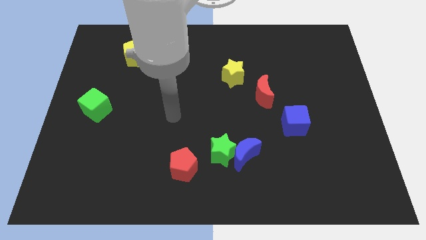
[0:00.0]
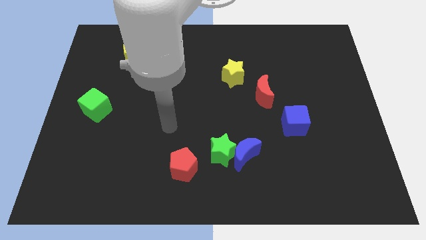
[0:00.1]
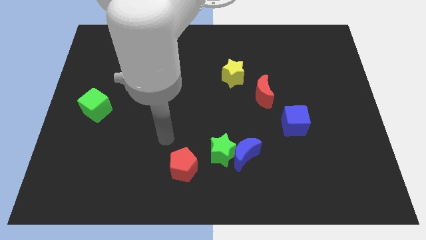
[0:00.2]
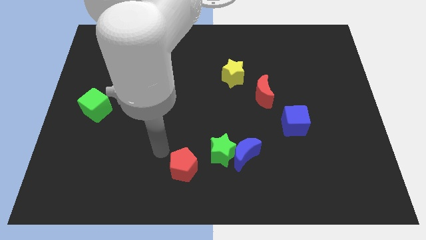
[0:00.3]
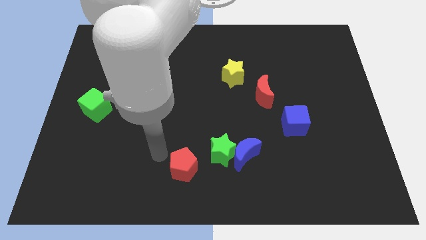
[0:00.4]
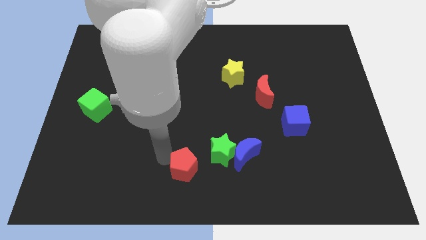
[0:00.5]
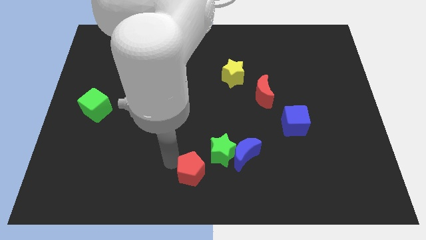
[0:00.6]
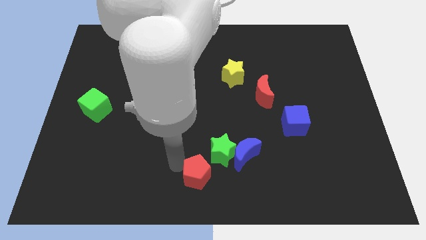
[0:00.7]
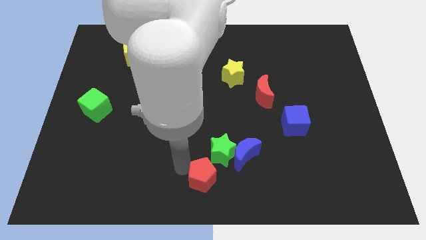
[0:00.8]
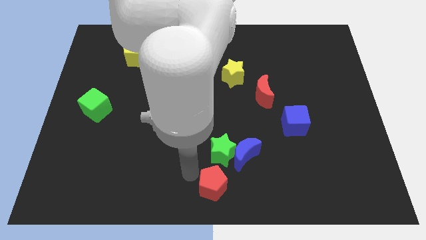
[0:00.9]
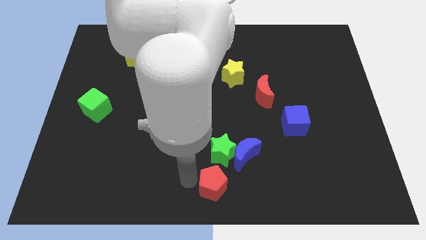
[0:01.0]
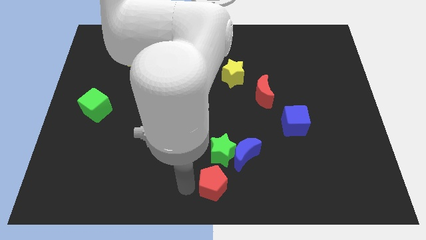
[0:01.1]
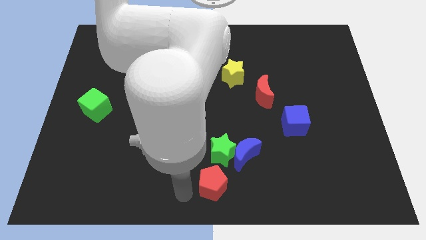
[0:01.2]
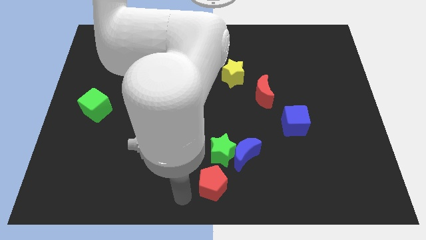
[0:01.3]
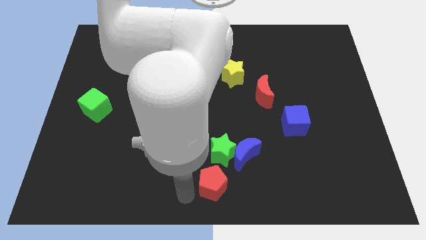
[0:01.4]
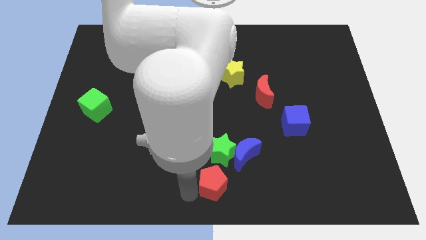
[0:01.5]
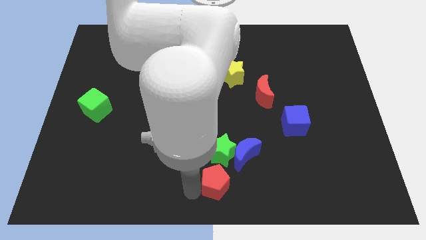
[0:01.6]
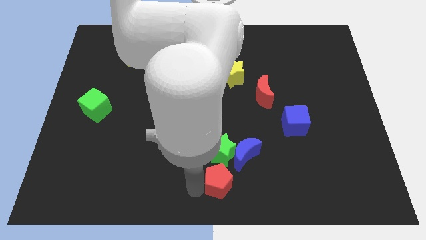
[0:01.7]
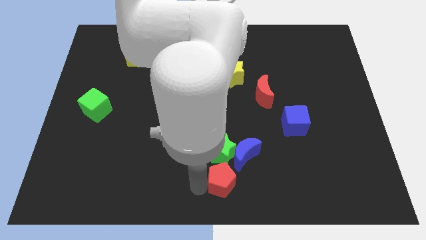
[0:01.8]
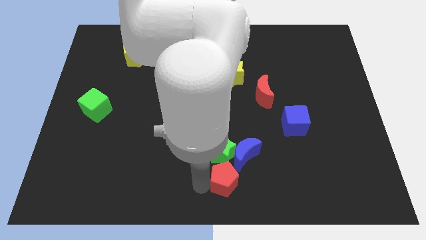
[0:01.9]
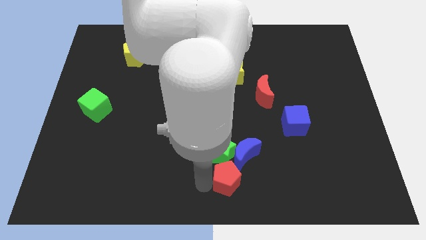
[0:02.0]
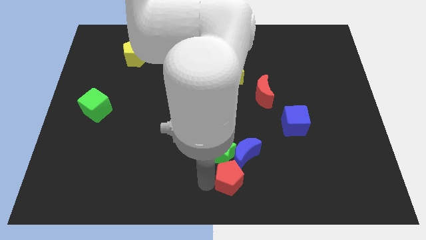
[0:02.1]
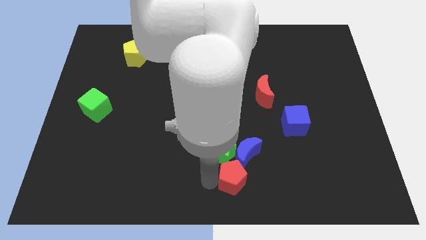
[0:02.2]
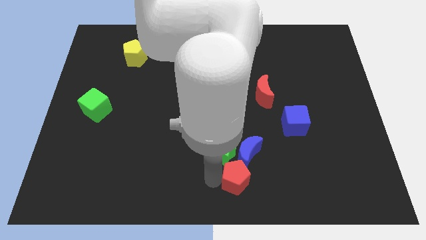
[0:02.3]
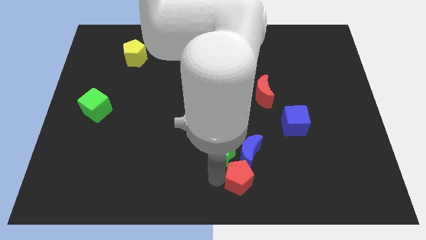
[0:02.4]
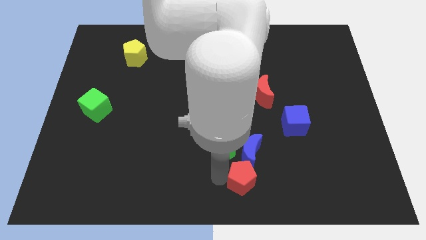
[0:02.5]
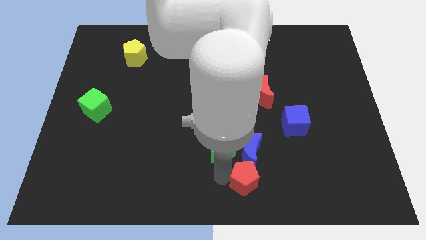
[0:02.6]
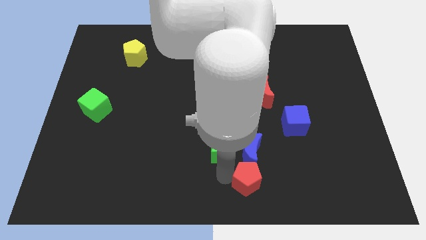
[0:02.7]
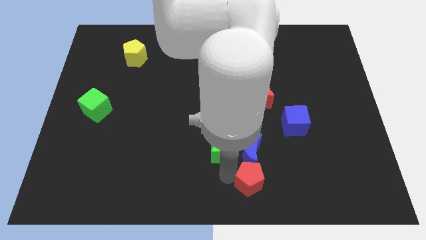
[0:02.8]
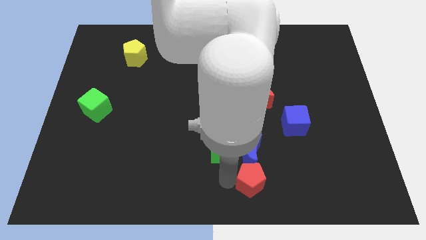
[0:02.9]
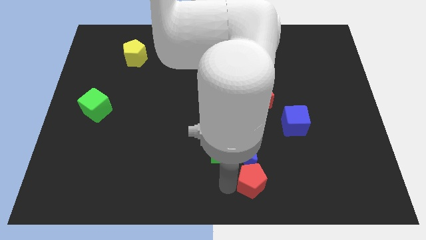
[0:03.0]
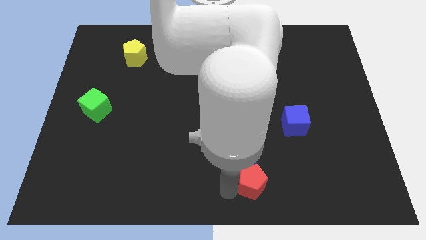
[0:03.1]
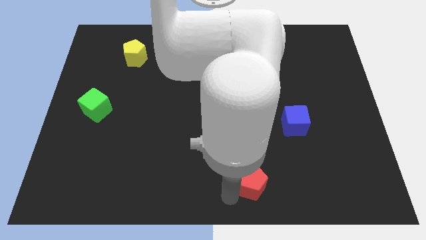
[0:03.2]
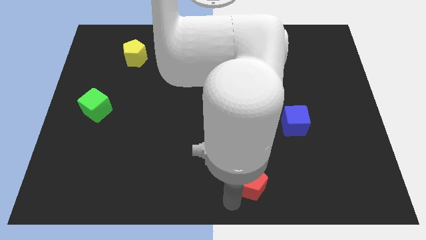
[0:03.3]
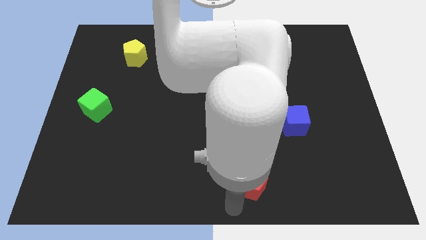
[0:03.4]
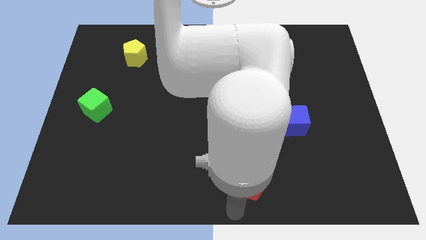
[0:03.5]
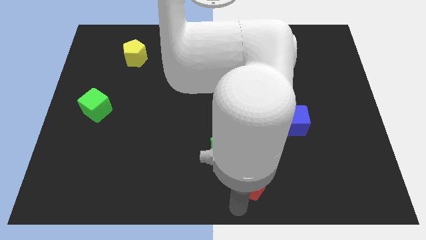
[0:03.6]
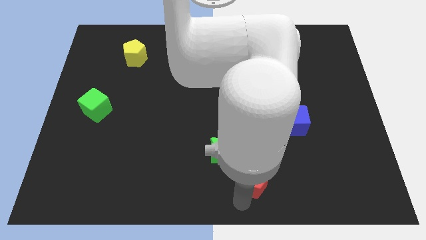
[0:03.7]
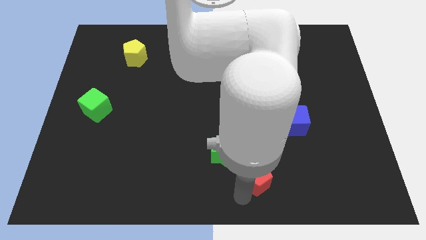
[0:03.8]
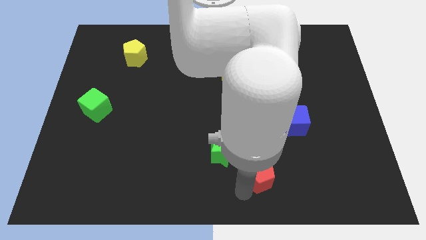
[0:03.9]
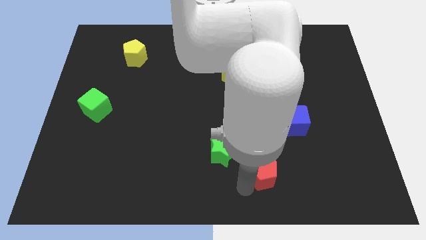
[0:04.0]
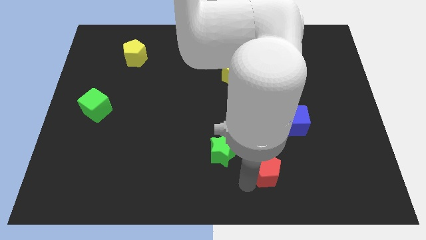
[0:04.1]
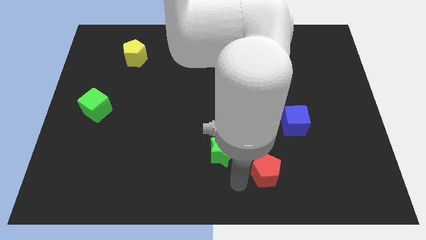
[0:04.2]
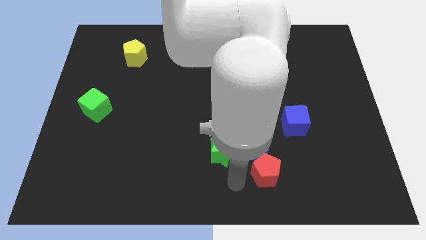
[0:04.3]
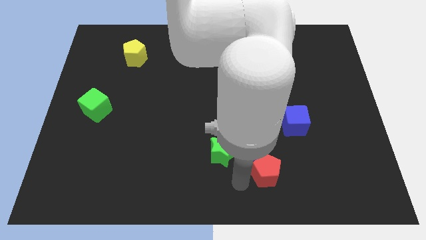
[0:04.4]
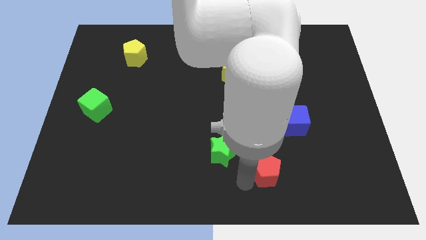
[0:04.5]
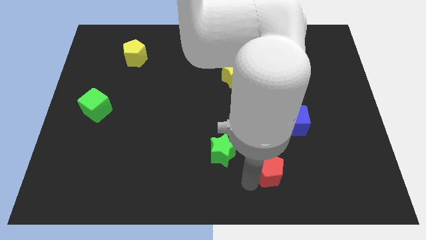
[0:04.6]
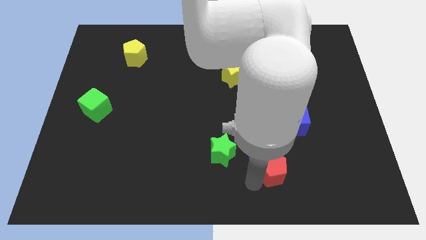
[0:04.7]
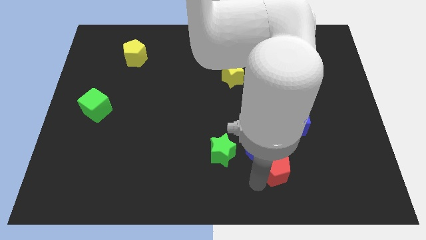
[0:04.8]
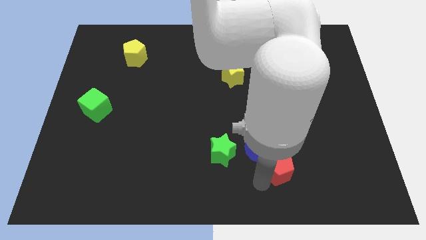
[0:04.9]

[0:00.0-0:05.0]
put the red pentagon below the blue cube

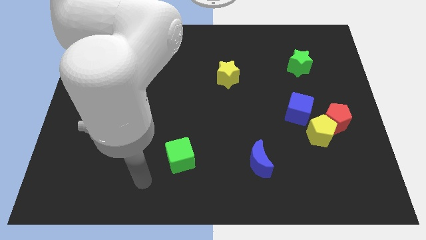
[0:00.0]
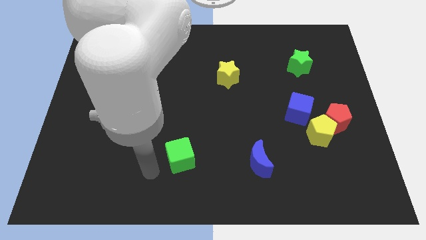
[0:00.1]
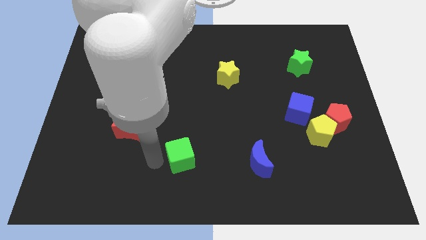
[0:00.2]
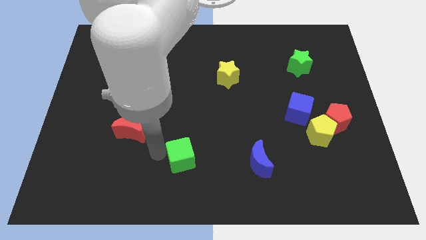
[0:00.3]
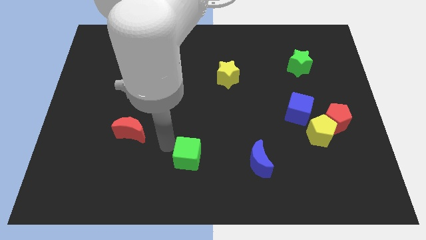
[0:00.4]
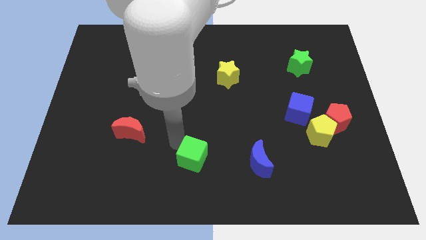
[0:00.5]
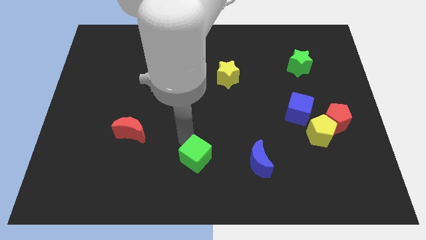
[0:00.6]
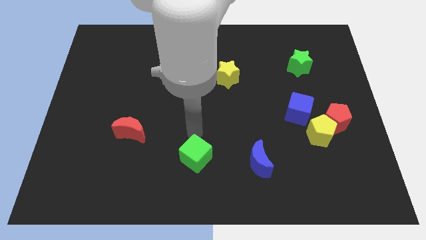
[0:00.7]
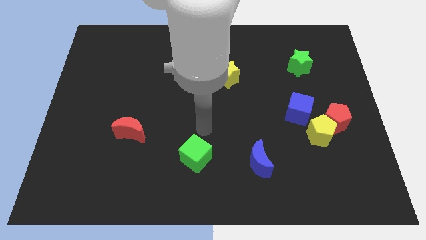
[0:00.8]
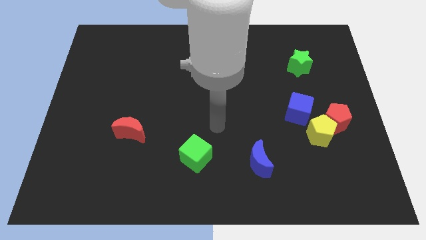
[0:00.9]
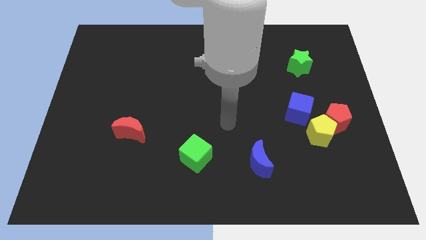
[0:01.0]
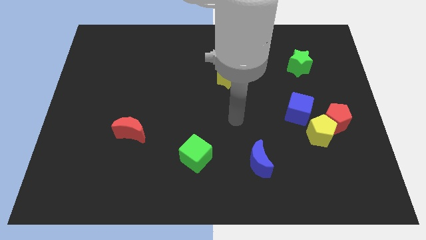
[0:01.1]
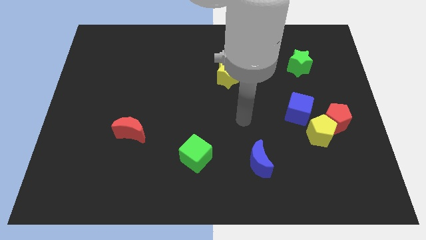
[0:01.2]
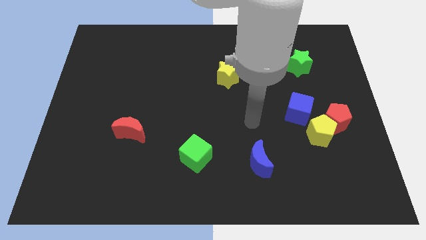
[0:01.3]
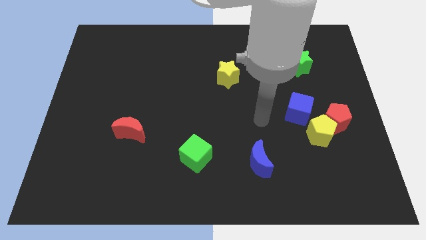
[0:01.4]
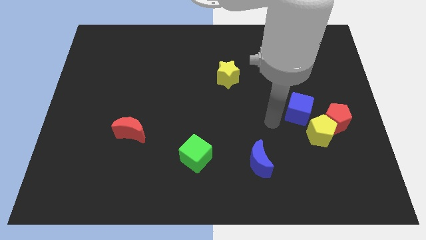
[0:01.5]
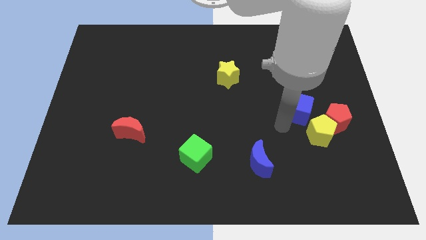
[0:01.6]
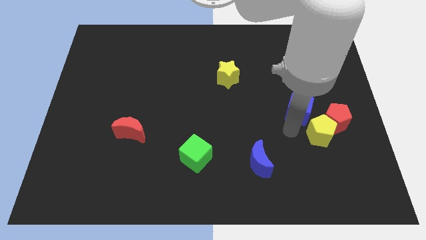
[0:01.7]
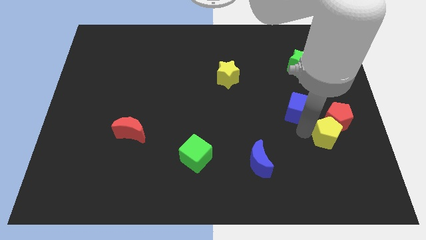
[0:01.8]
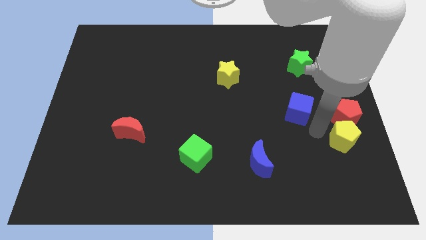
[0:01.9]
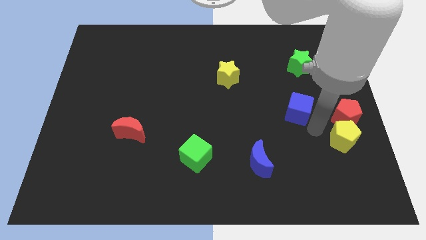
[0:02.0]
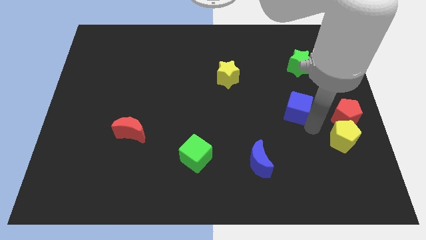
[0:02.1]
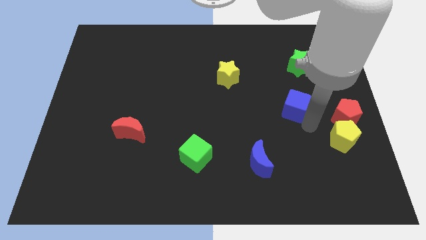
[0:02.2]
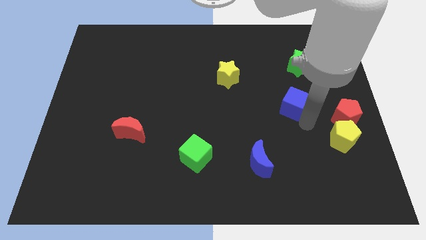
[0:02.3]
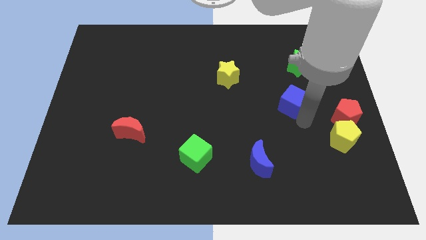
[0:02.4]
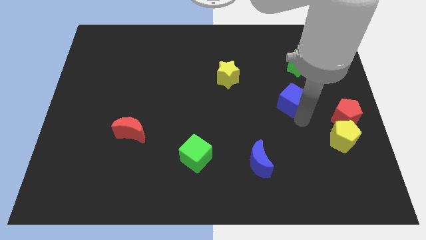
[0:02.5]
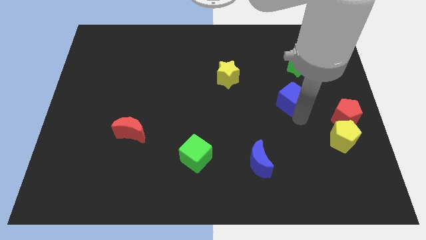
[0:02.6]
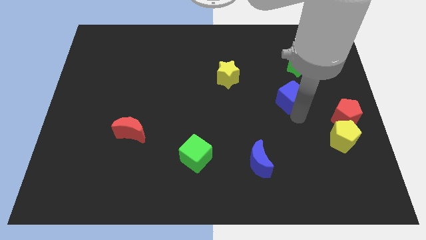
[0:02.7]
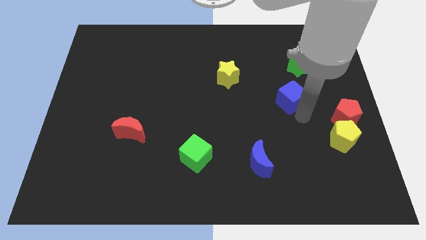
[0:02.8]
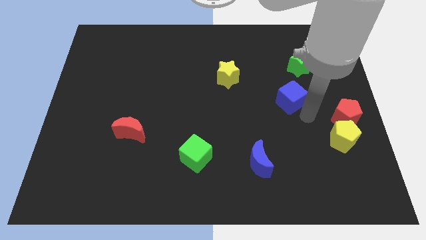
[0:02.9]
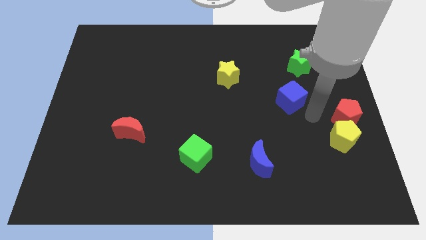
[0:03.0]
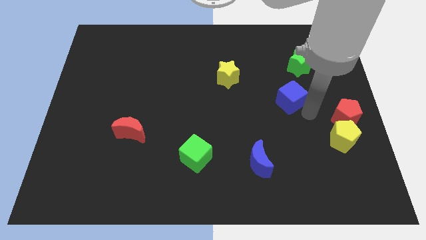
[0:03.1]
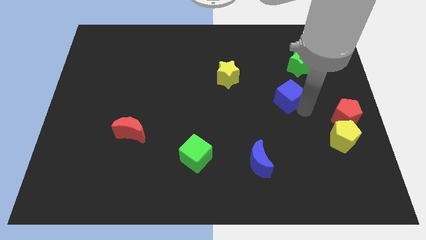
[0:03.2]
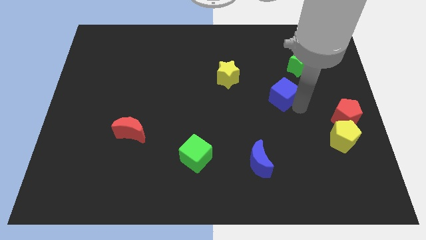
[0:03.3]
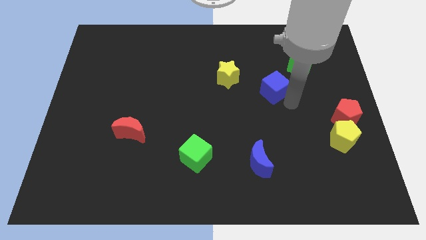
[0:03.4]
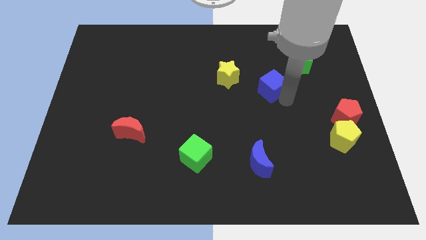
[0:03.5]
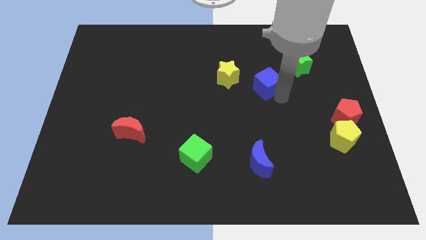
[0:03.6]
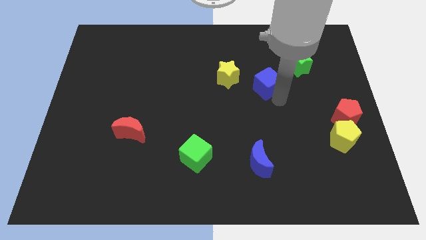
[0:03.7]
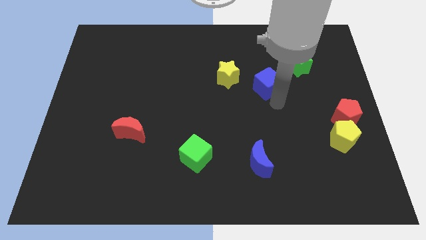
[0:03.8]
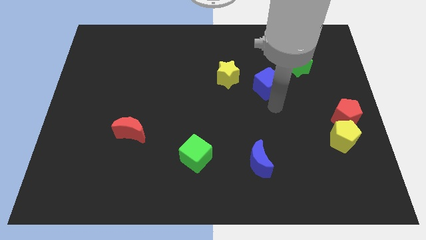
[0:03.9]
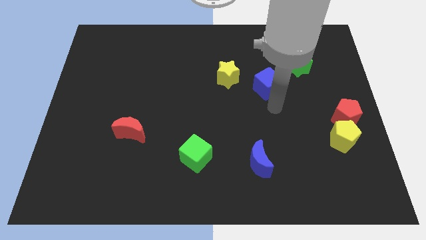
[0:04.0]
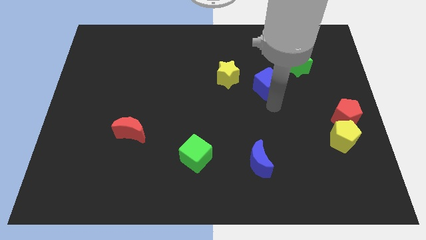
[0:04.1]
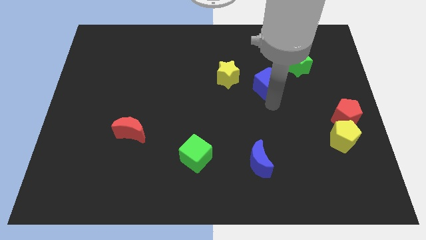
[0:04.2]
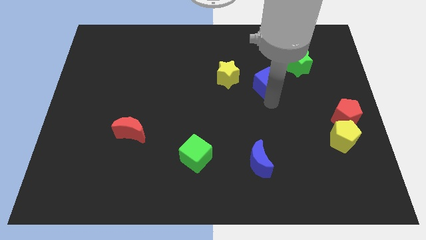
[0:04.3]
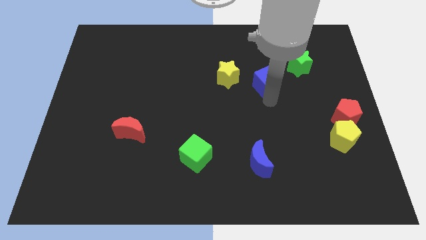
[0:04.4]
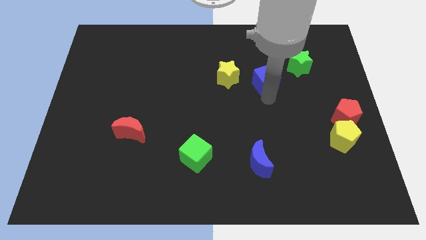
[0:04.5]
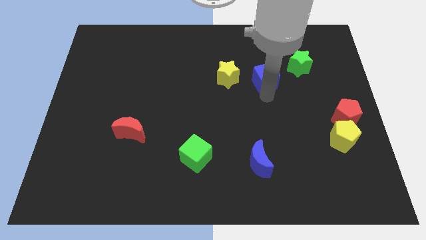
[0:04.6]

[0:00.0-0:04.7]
put the blue cube left of the green star
